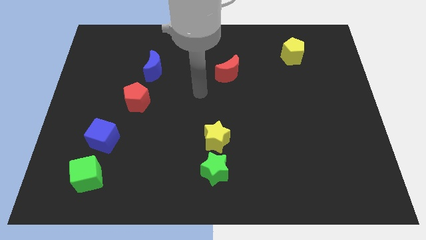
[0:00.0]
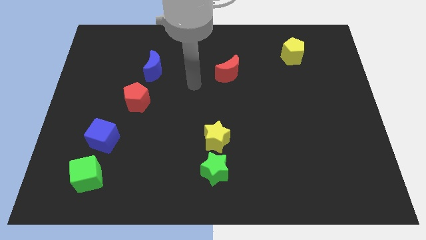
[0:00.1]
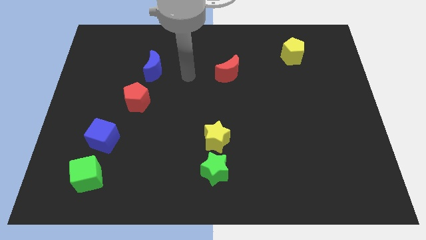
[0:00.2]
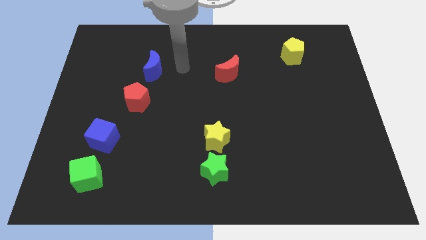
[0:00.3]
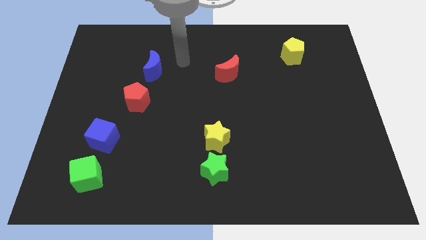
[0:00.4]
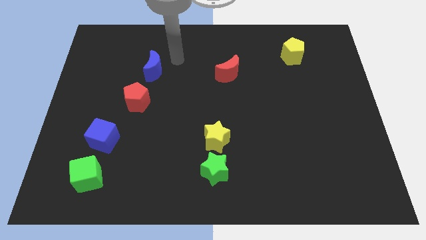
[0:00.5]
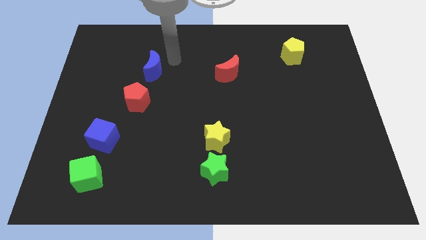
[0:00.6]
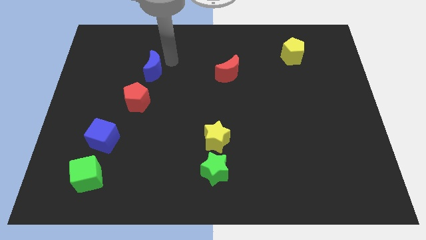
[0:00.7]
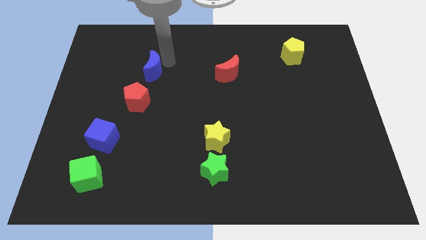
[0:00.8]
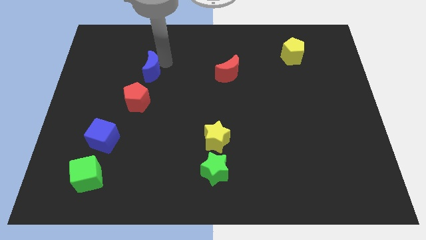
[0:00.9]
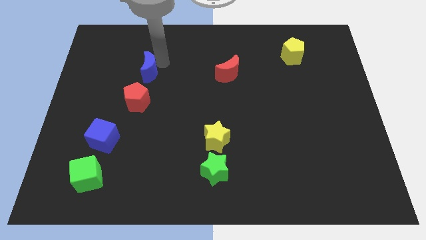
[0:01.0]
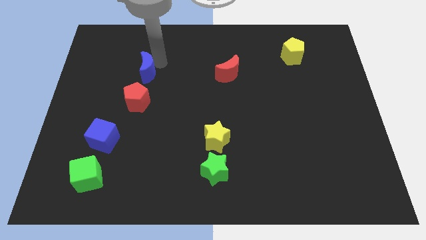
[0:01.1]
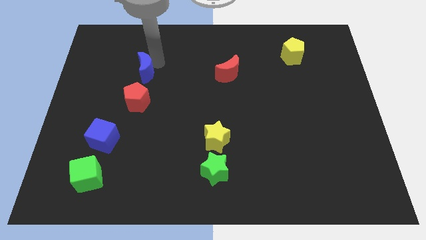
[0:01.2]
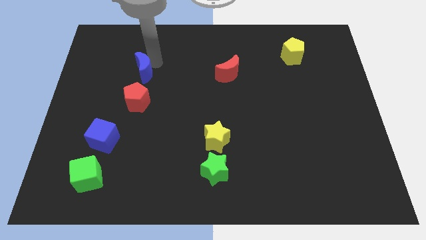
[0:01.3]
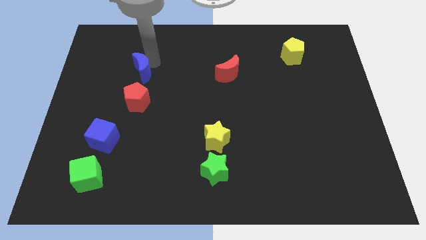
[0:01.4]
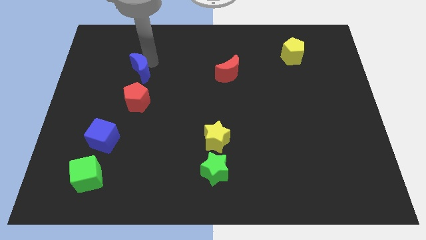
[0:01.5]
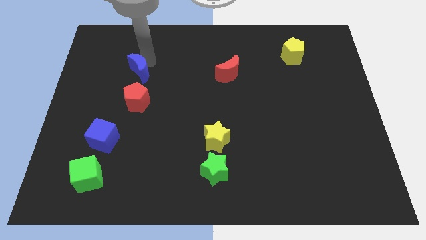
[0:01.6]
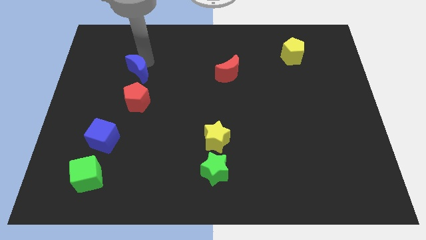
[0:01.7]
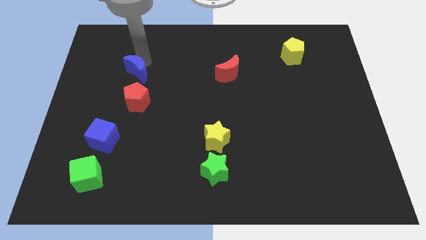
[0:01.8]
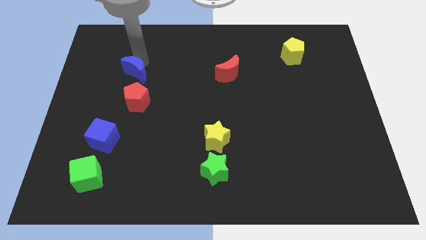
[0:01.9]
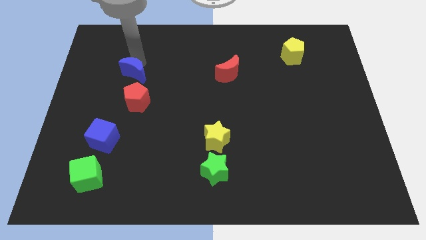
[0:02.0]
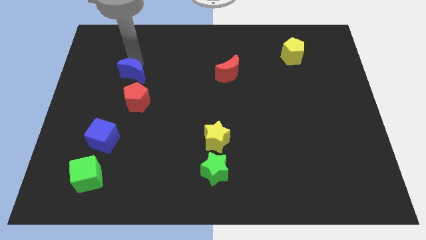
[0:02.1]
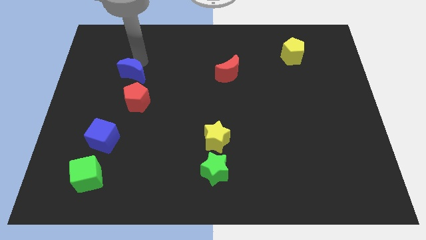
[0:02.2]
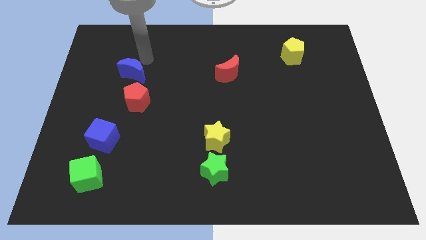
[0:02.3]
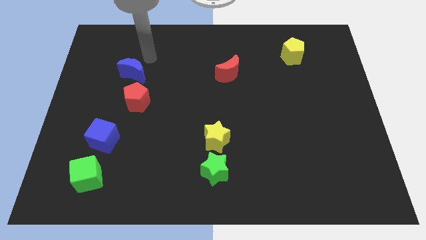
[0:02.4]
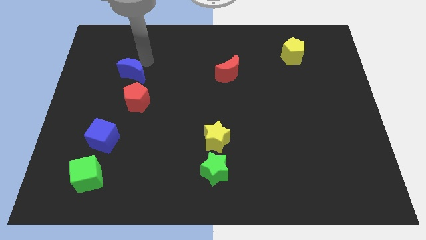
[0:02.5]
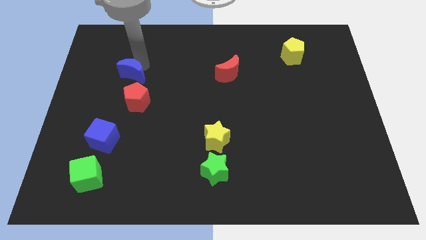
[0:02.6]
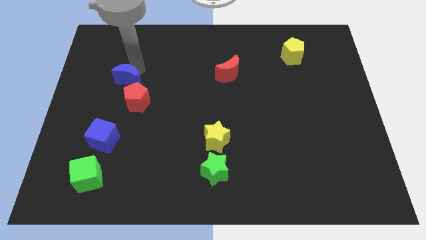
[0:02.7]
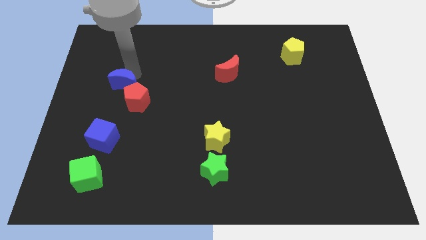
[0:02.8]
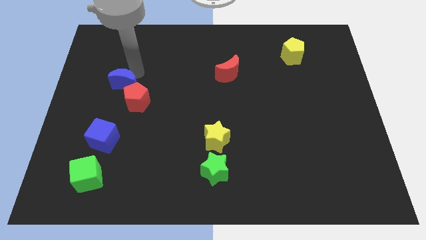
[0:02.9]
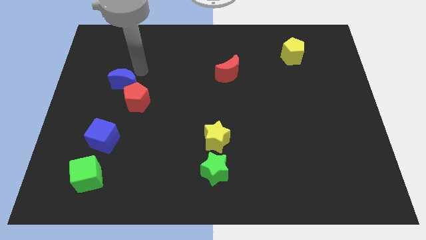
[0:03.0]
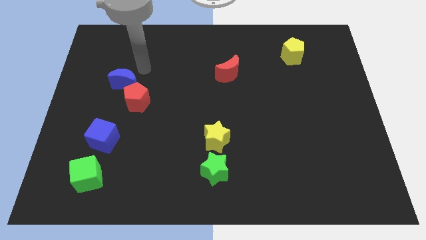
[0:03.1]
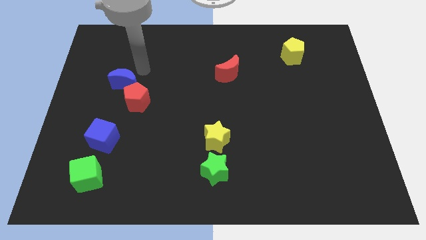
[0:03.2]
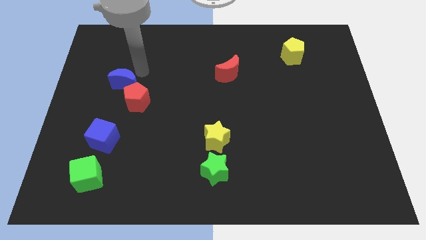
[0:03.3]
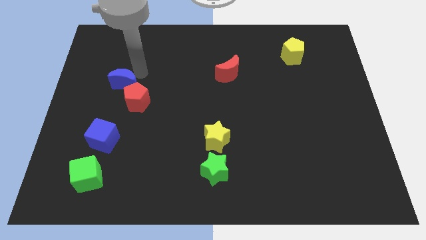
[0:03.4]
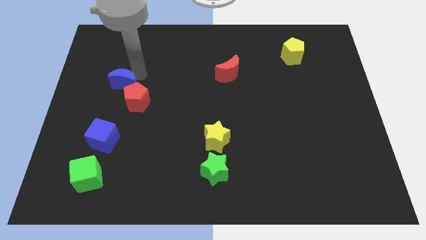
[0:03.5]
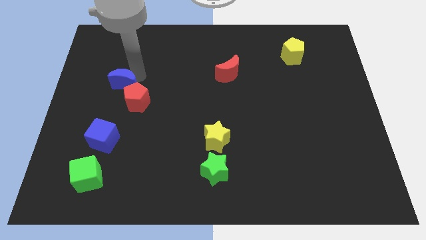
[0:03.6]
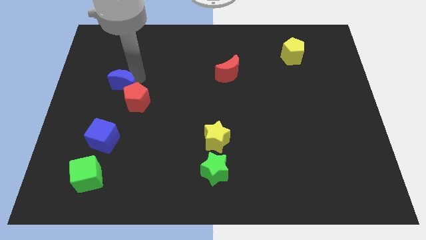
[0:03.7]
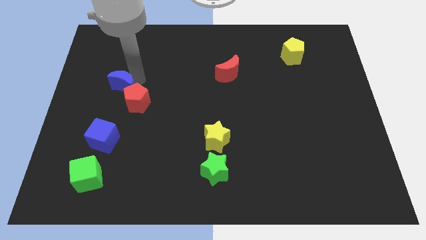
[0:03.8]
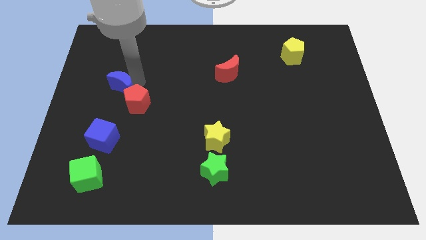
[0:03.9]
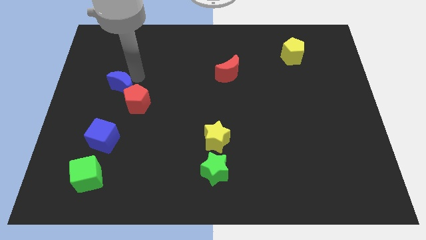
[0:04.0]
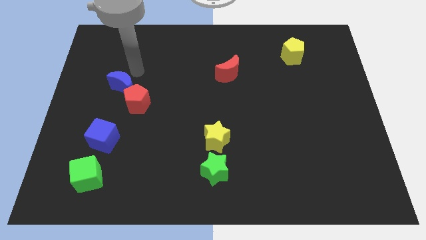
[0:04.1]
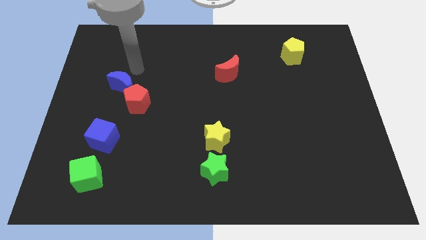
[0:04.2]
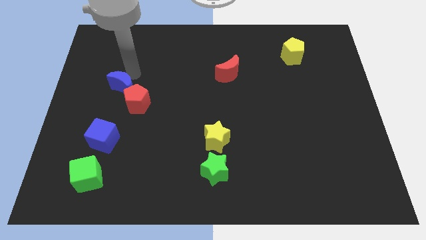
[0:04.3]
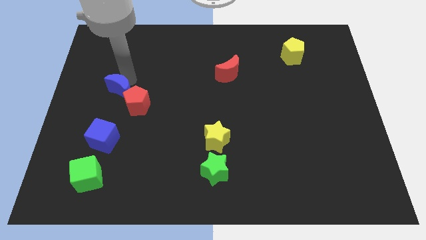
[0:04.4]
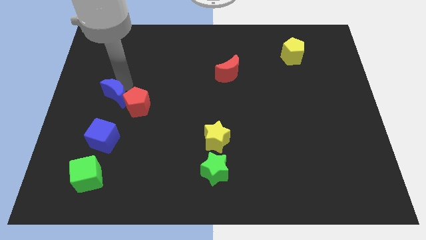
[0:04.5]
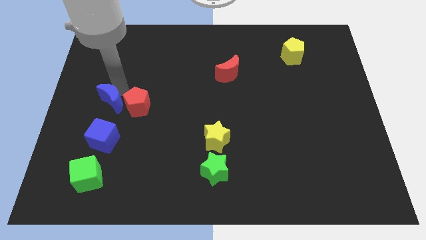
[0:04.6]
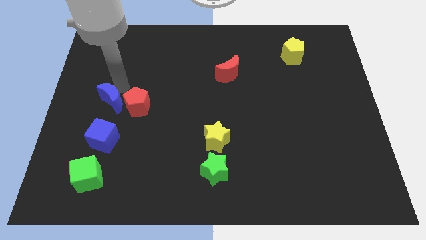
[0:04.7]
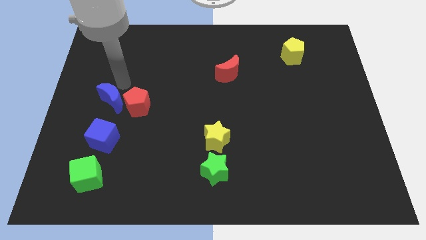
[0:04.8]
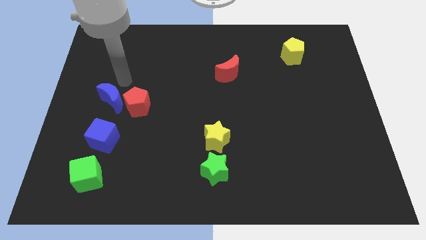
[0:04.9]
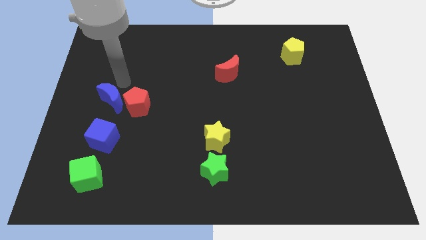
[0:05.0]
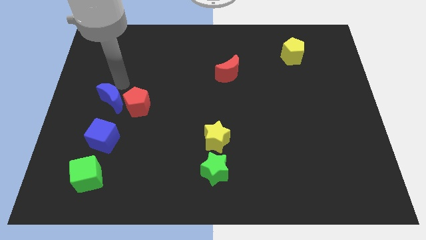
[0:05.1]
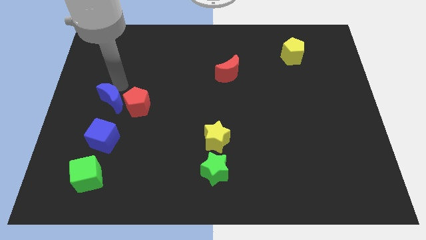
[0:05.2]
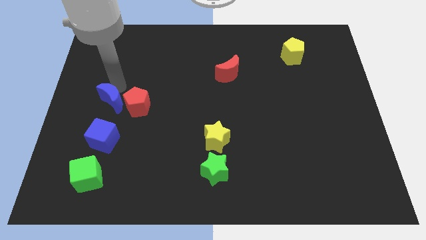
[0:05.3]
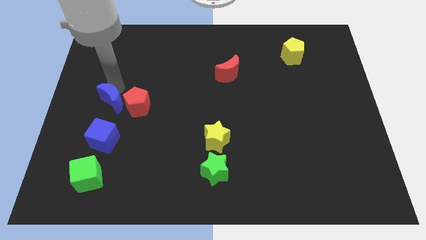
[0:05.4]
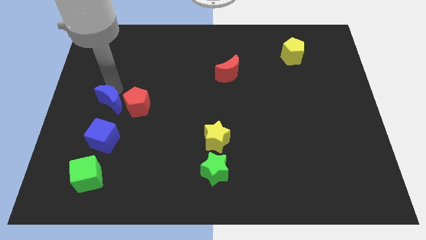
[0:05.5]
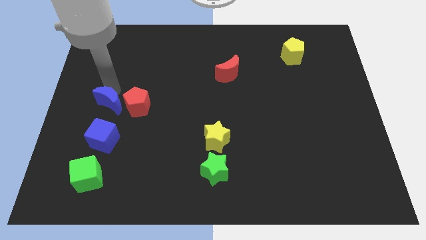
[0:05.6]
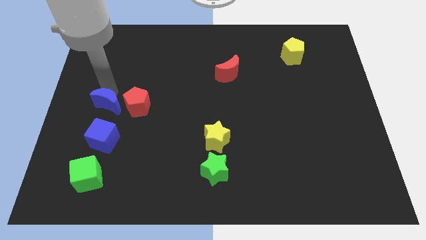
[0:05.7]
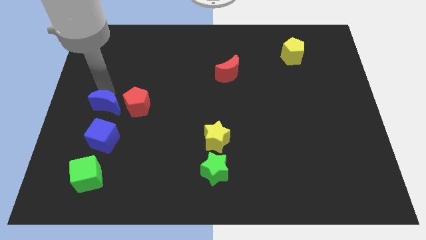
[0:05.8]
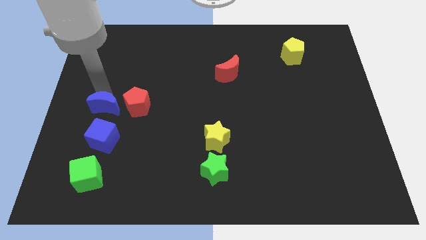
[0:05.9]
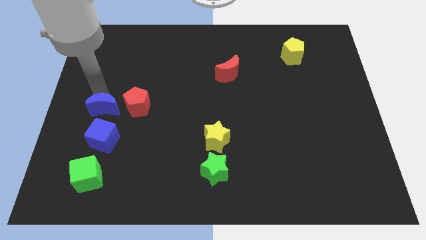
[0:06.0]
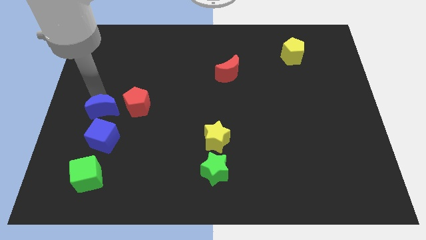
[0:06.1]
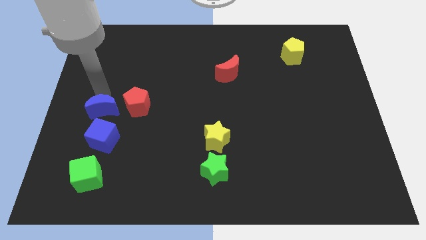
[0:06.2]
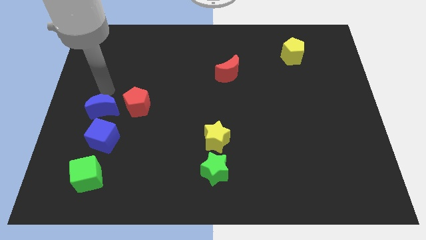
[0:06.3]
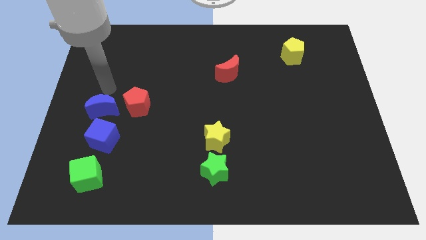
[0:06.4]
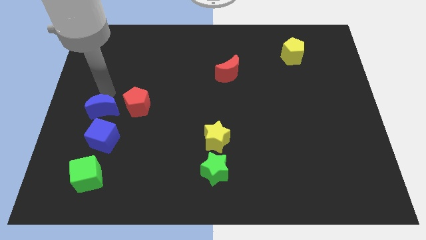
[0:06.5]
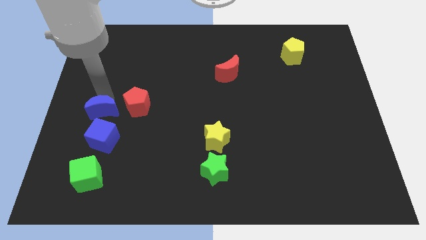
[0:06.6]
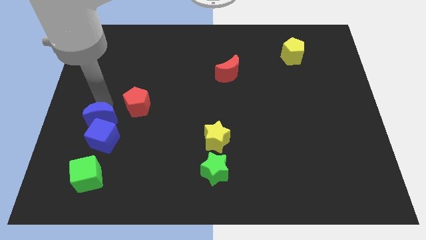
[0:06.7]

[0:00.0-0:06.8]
put the blue moon to the top side of the green cube
